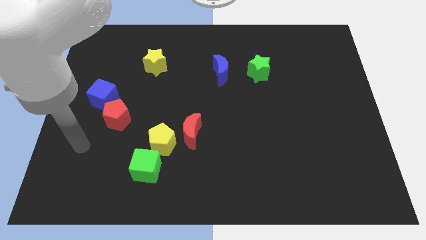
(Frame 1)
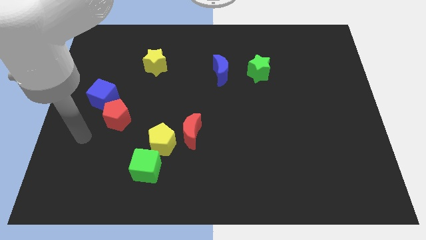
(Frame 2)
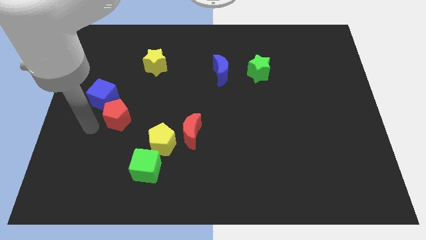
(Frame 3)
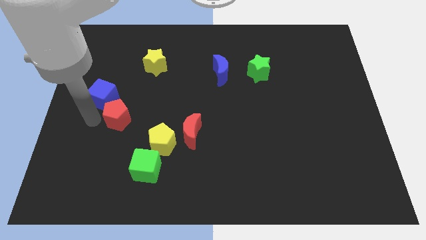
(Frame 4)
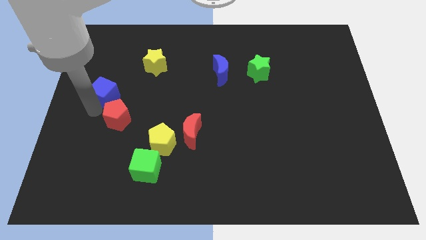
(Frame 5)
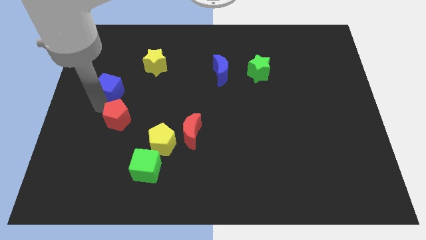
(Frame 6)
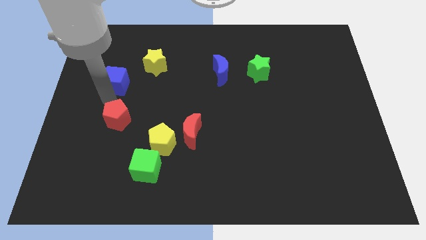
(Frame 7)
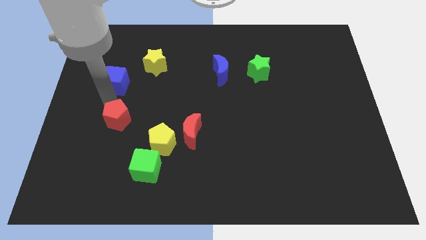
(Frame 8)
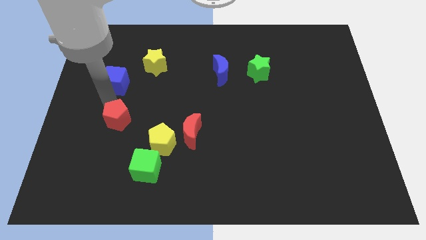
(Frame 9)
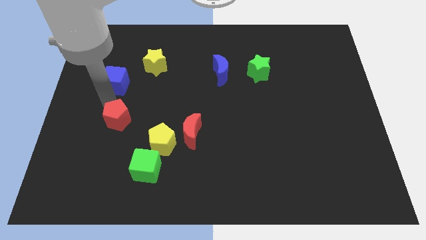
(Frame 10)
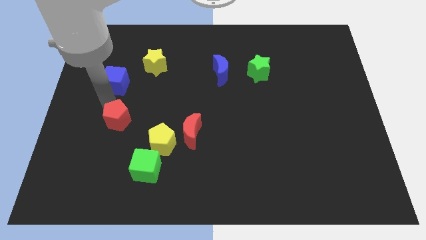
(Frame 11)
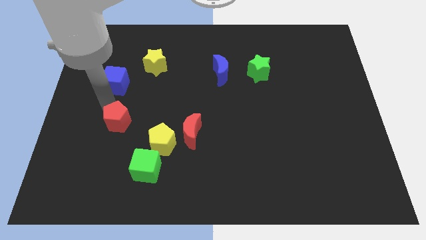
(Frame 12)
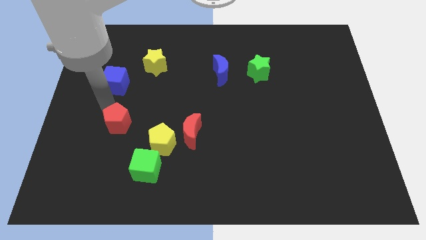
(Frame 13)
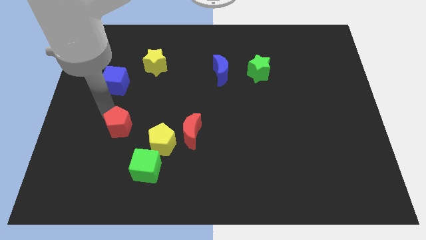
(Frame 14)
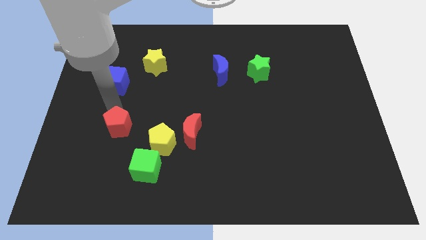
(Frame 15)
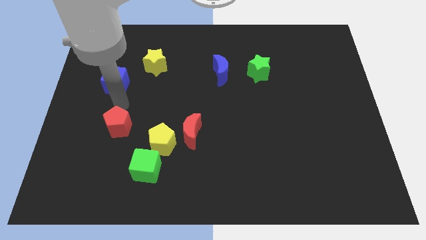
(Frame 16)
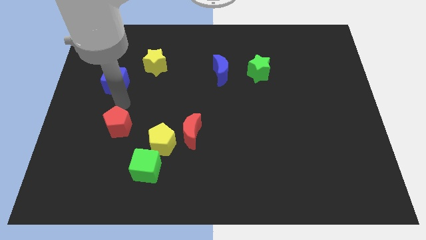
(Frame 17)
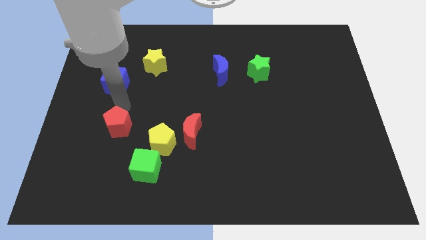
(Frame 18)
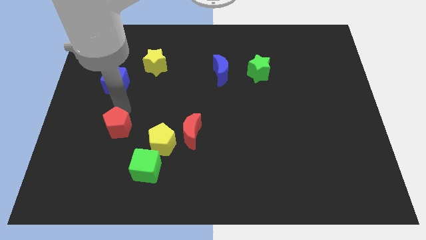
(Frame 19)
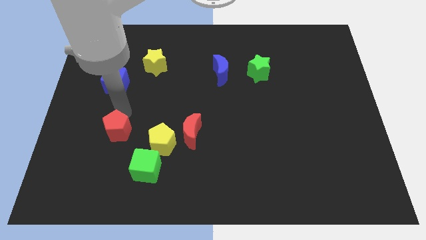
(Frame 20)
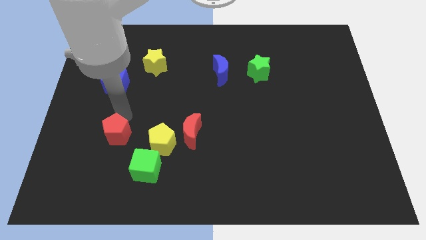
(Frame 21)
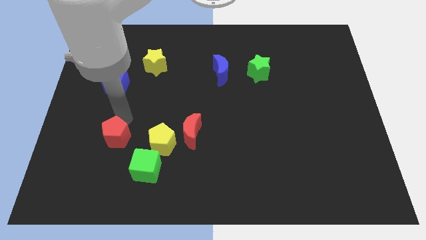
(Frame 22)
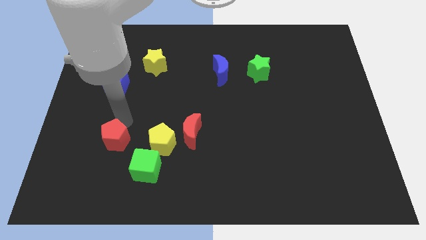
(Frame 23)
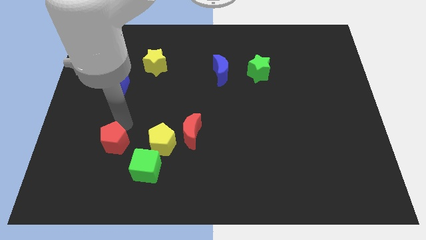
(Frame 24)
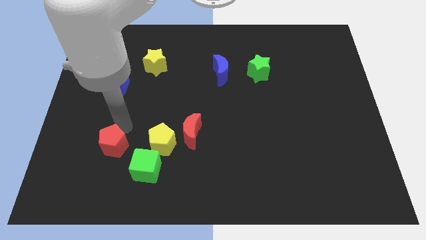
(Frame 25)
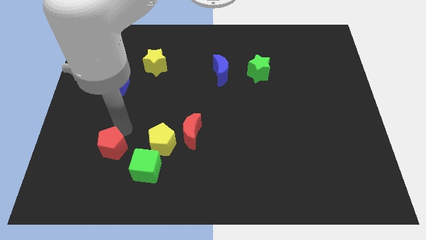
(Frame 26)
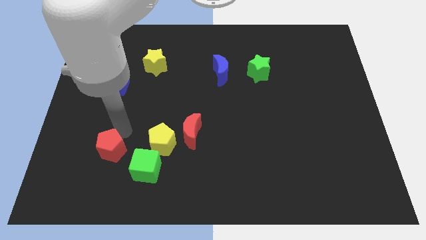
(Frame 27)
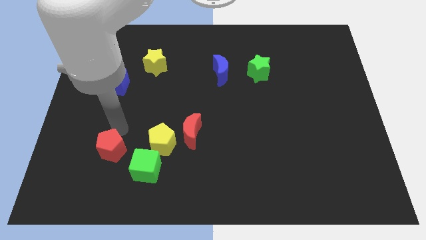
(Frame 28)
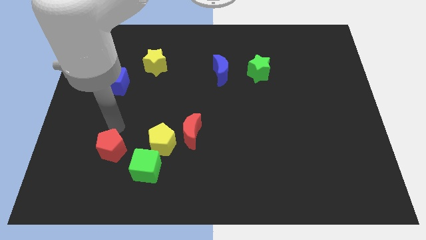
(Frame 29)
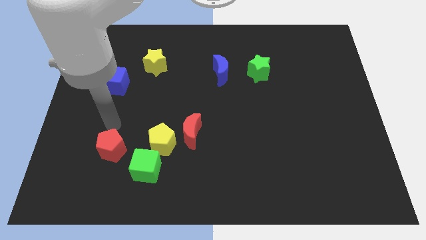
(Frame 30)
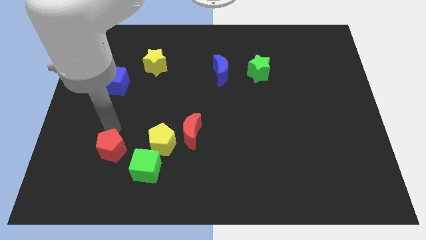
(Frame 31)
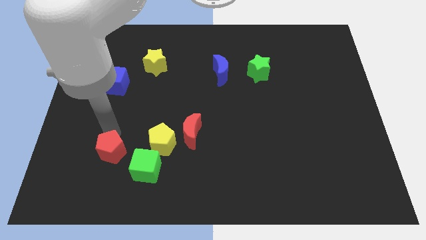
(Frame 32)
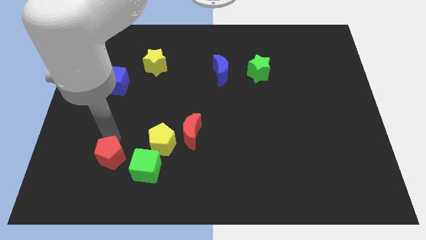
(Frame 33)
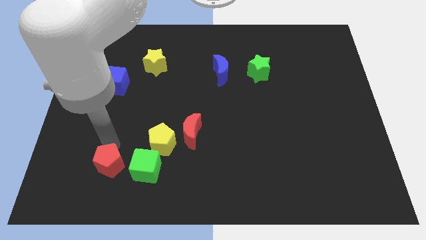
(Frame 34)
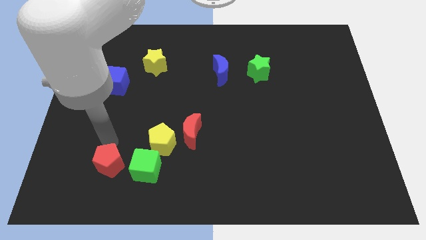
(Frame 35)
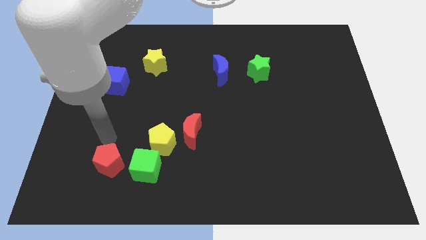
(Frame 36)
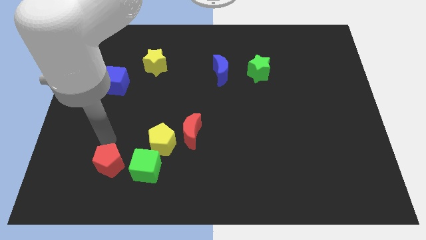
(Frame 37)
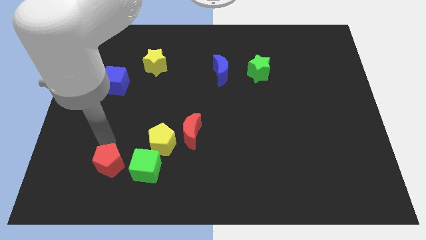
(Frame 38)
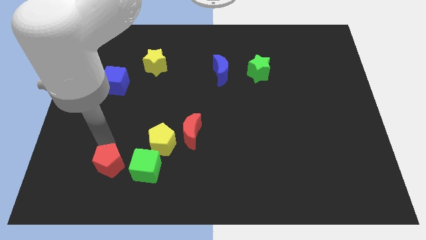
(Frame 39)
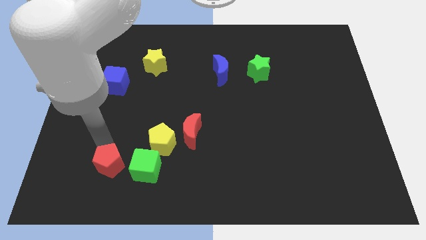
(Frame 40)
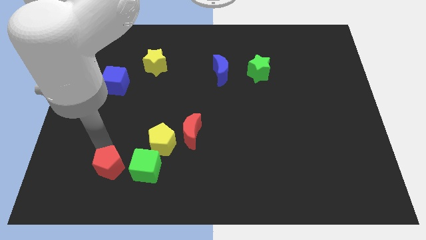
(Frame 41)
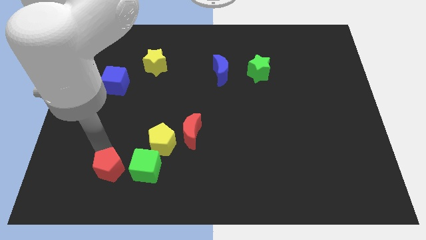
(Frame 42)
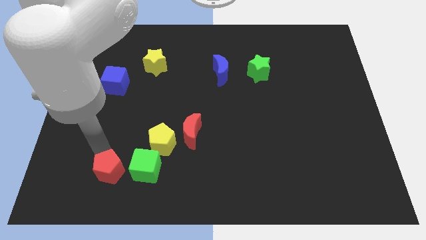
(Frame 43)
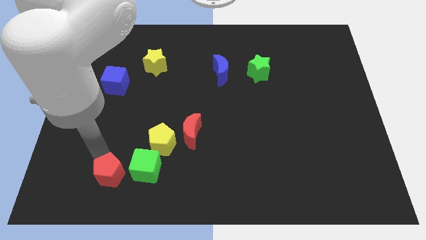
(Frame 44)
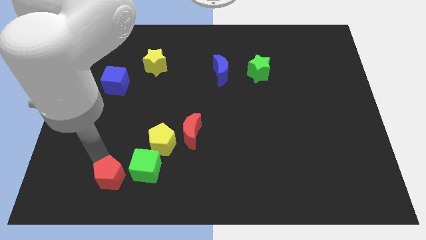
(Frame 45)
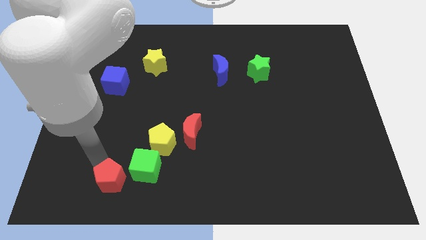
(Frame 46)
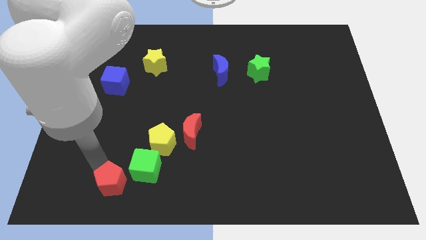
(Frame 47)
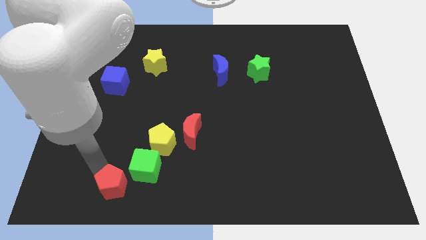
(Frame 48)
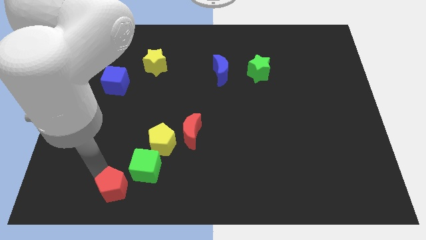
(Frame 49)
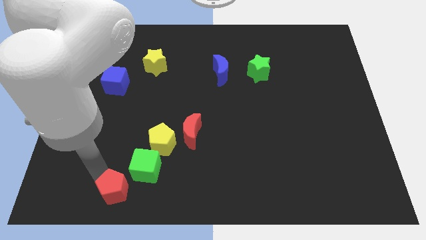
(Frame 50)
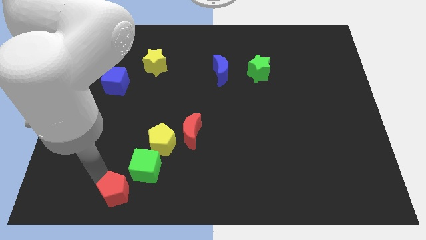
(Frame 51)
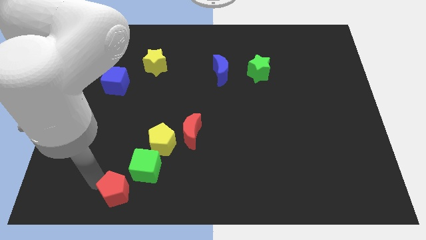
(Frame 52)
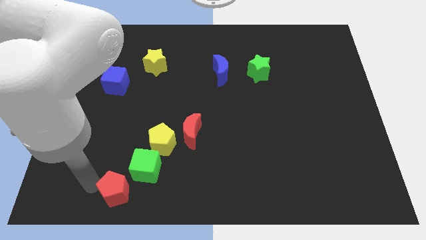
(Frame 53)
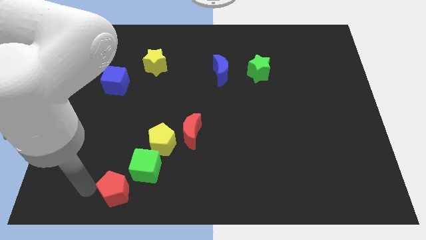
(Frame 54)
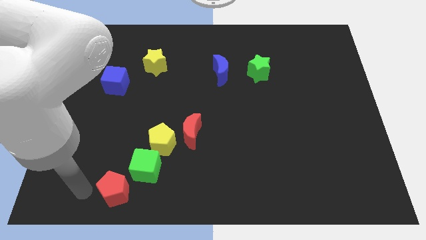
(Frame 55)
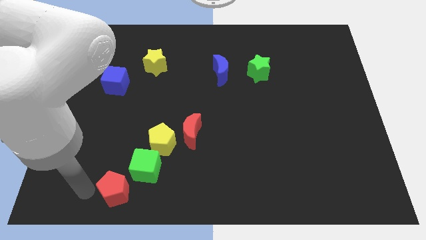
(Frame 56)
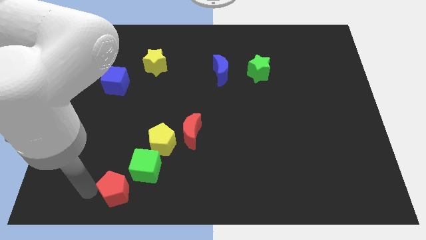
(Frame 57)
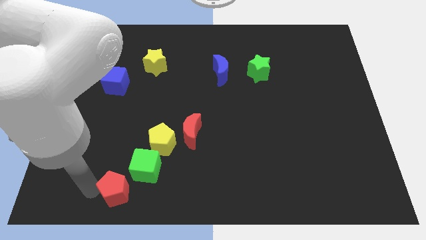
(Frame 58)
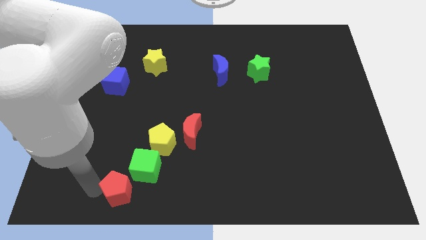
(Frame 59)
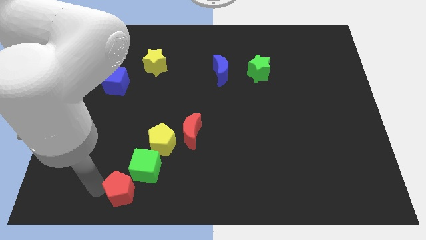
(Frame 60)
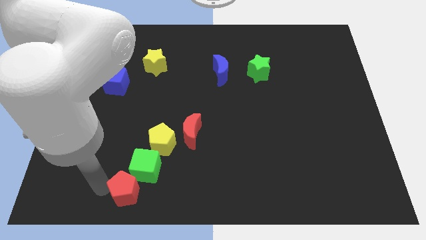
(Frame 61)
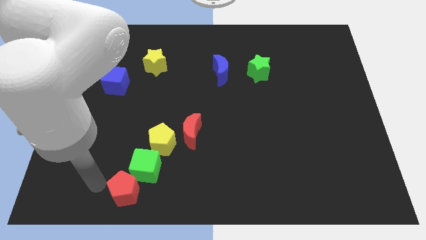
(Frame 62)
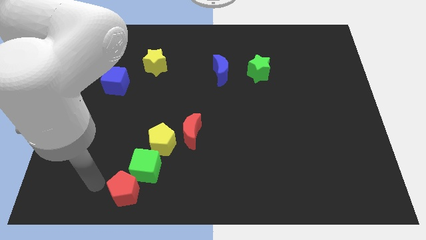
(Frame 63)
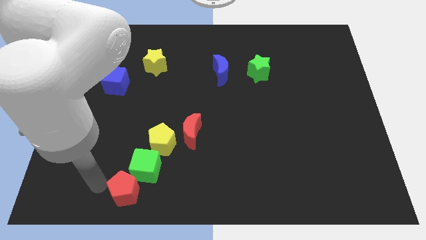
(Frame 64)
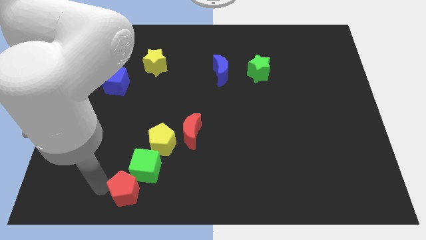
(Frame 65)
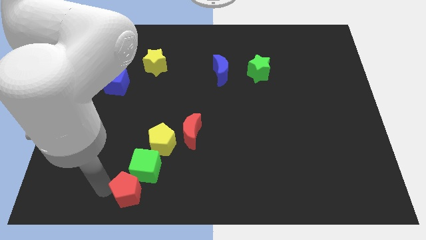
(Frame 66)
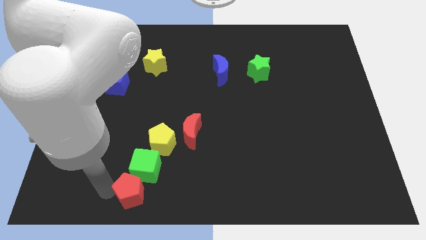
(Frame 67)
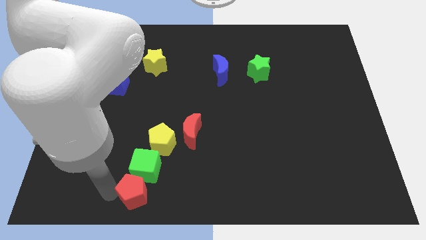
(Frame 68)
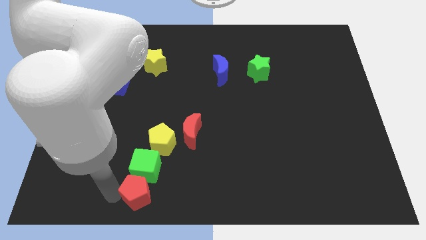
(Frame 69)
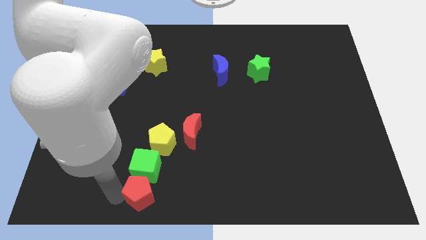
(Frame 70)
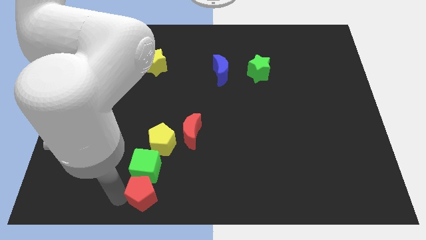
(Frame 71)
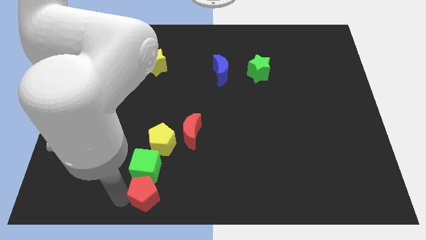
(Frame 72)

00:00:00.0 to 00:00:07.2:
slide the red pentagon to the bottom

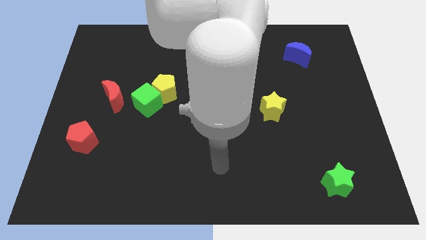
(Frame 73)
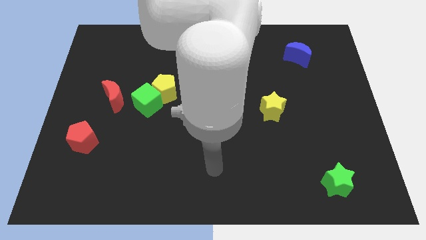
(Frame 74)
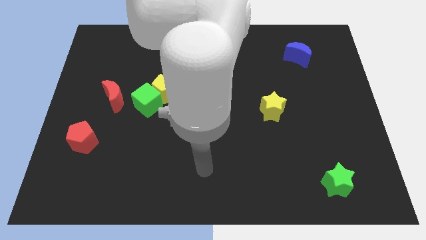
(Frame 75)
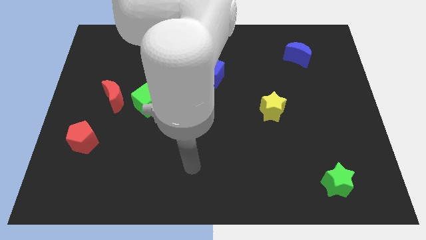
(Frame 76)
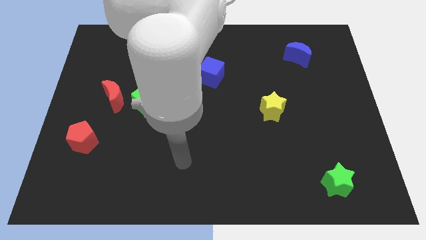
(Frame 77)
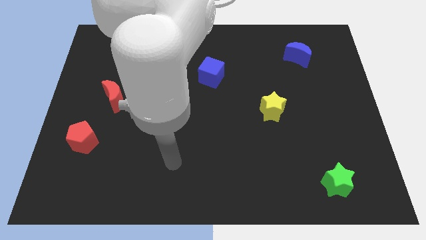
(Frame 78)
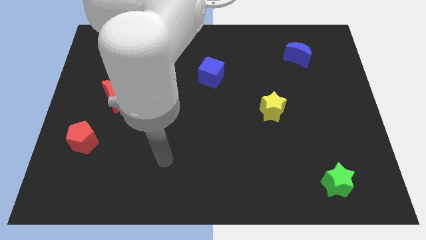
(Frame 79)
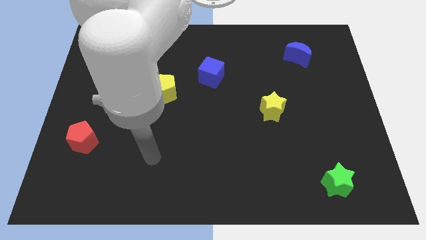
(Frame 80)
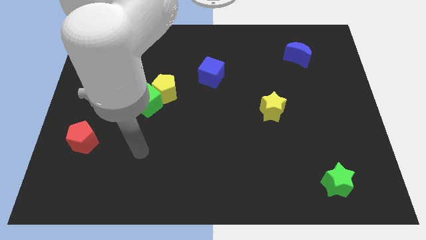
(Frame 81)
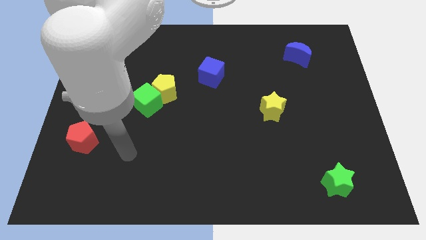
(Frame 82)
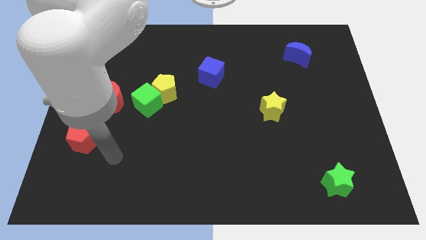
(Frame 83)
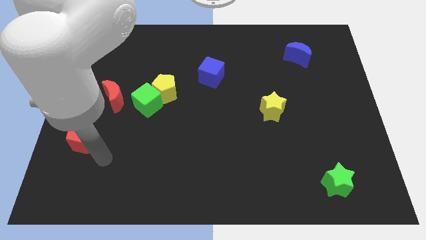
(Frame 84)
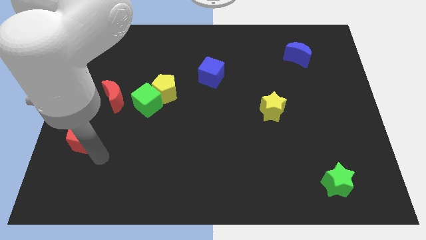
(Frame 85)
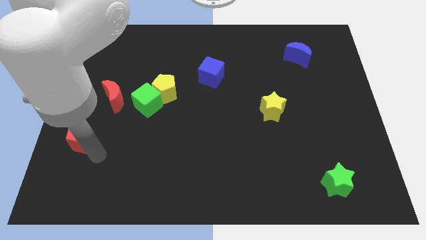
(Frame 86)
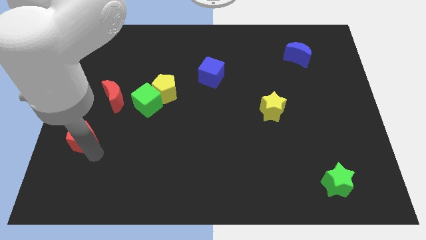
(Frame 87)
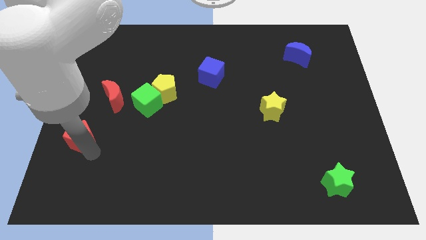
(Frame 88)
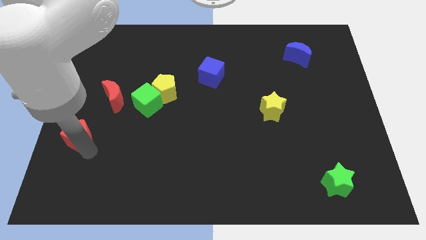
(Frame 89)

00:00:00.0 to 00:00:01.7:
push the red pentagon to the left side of the board
